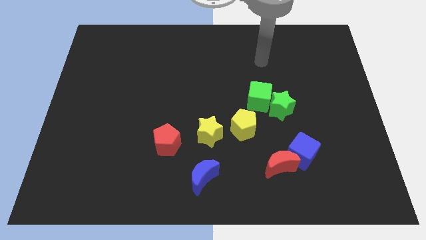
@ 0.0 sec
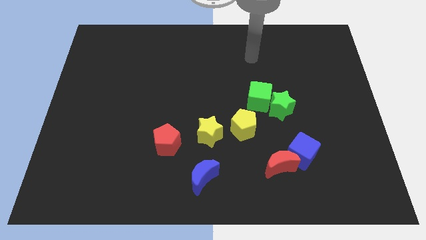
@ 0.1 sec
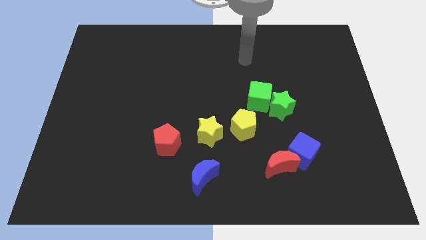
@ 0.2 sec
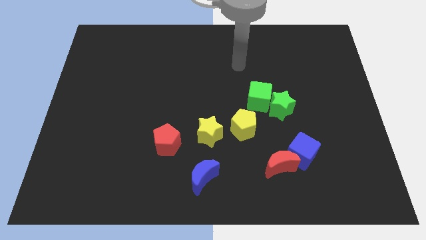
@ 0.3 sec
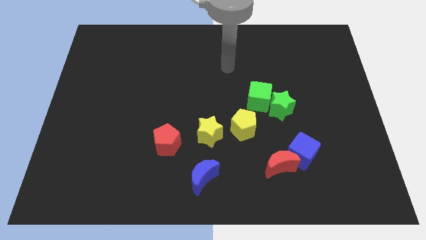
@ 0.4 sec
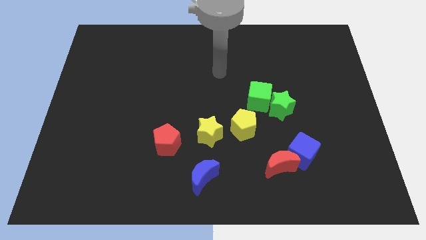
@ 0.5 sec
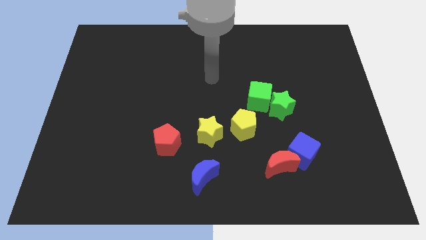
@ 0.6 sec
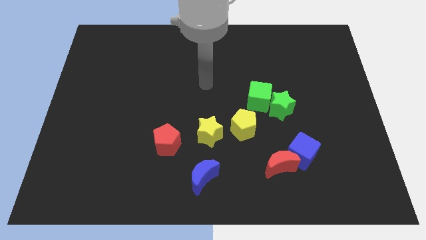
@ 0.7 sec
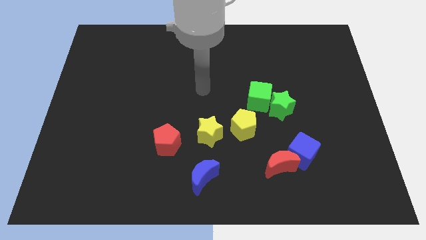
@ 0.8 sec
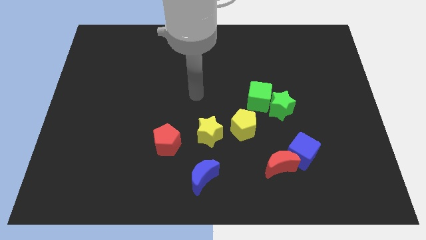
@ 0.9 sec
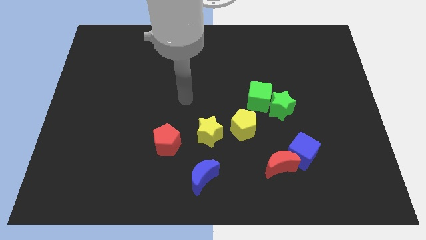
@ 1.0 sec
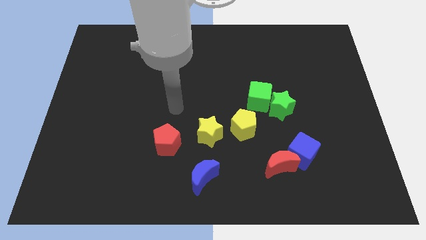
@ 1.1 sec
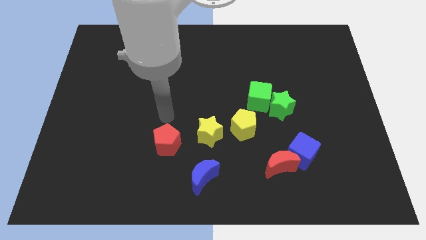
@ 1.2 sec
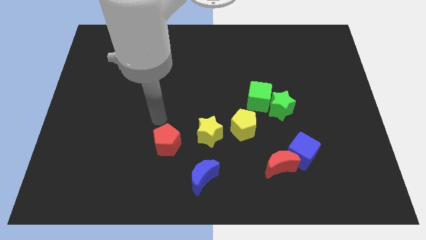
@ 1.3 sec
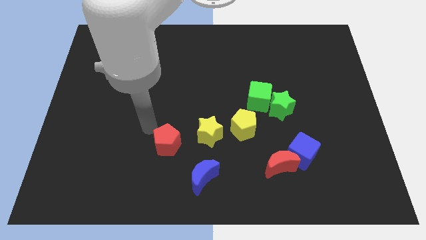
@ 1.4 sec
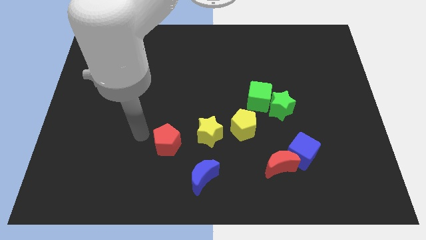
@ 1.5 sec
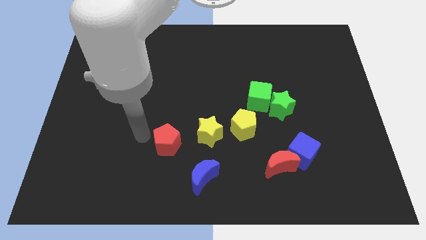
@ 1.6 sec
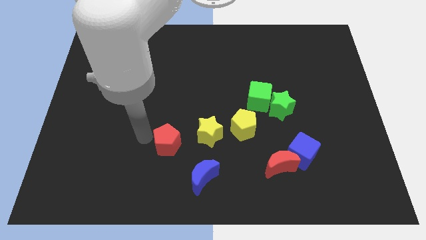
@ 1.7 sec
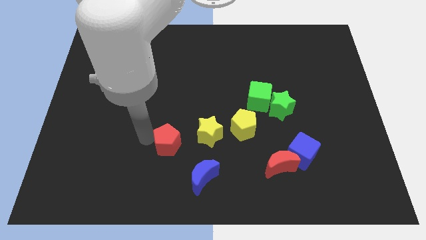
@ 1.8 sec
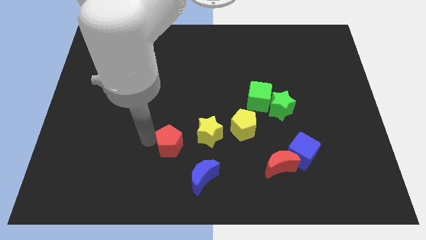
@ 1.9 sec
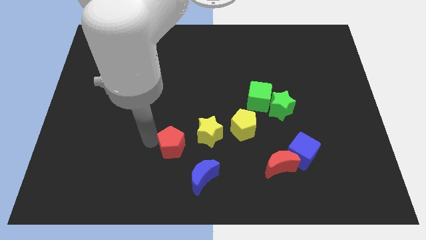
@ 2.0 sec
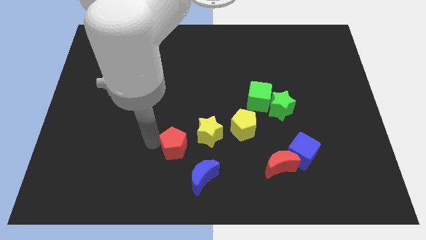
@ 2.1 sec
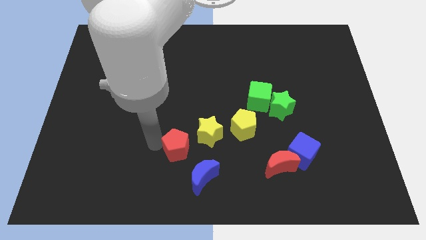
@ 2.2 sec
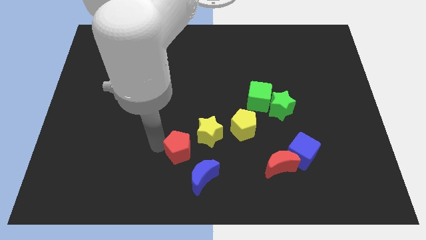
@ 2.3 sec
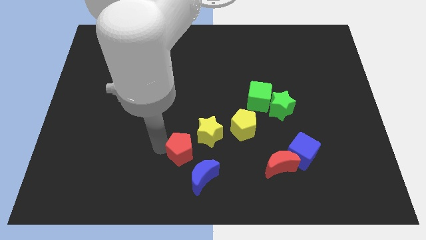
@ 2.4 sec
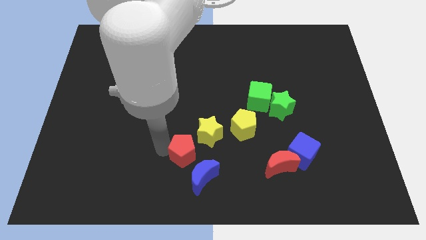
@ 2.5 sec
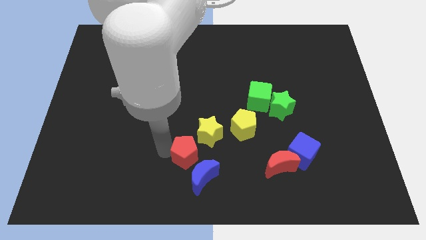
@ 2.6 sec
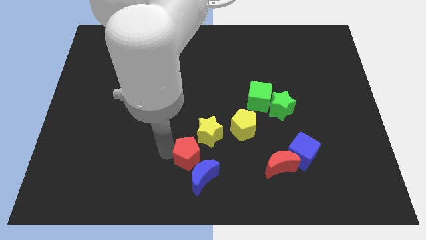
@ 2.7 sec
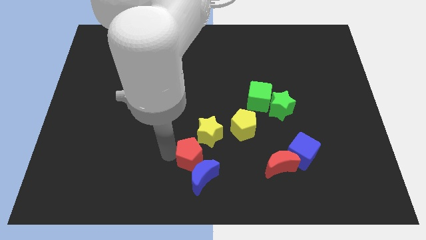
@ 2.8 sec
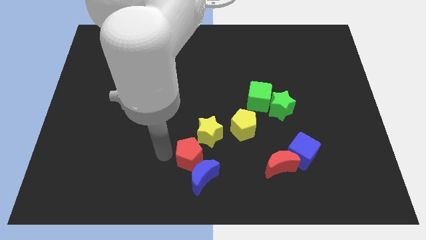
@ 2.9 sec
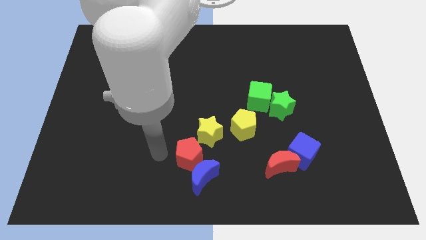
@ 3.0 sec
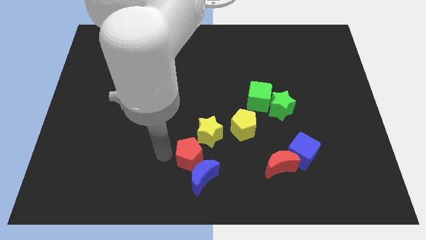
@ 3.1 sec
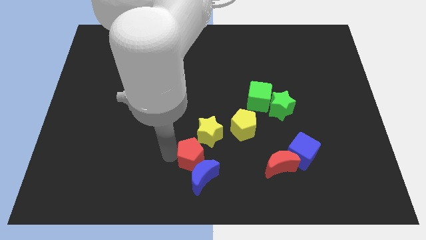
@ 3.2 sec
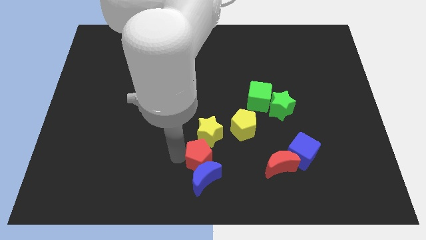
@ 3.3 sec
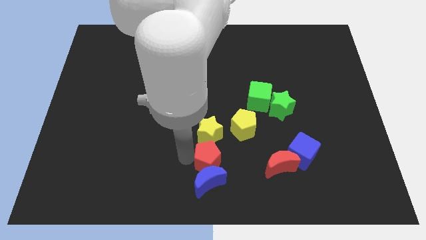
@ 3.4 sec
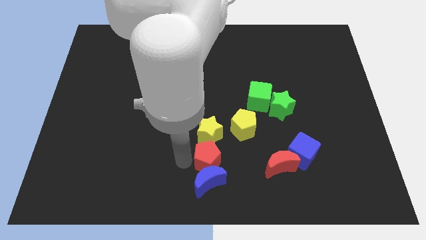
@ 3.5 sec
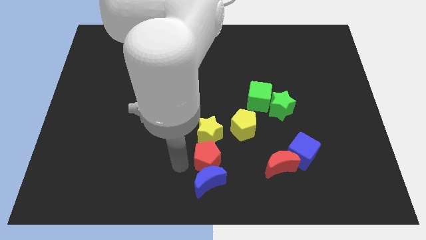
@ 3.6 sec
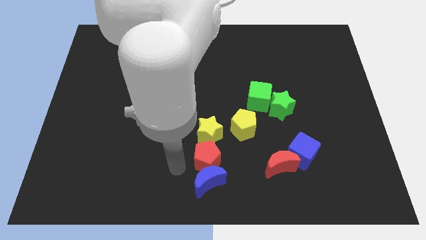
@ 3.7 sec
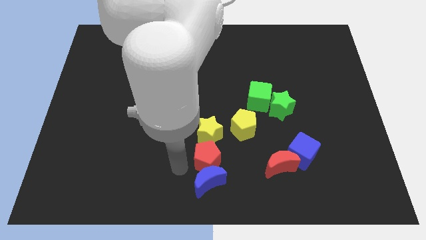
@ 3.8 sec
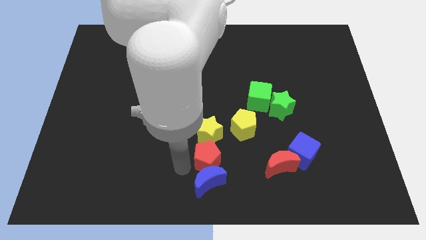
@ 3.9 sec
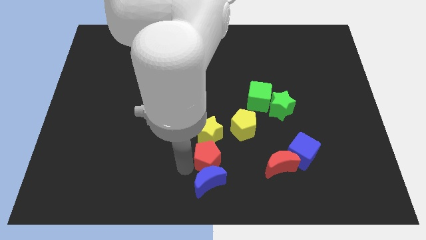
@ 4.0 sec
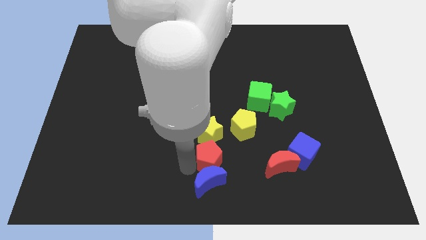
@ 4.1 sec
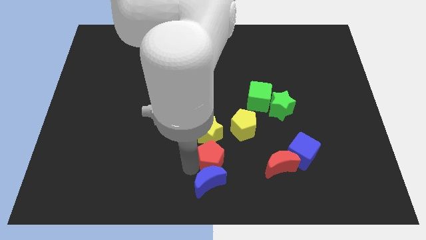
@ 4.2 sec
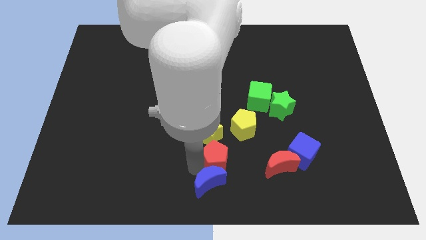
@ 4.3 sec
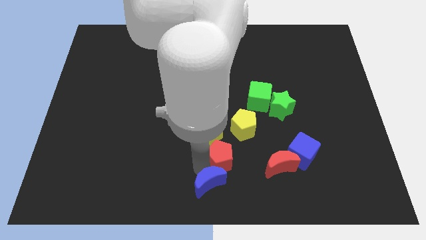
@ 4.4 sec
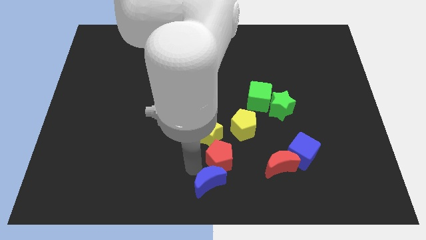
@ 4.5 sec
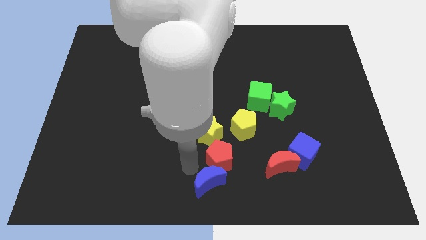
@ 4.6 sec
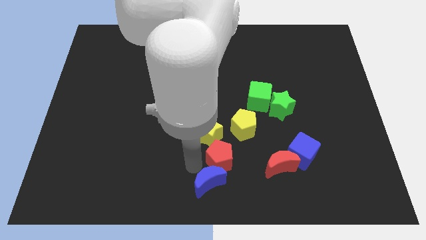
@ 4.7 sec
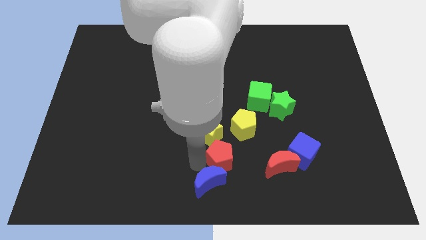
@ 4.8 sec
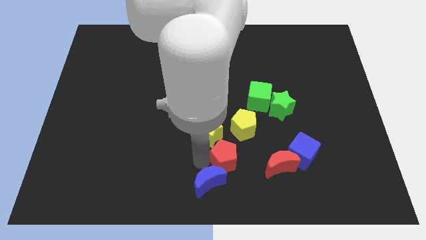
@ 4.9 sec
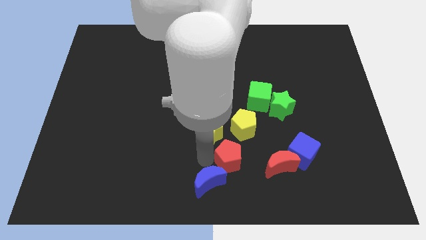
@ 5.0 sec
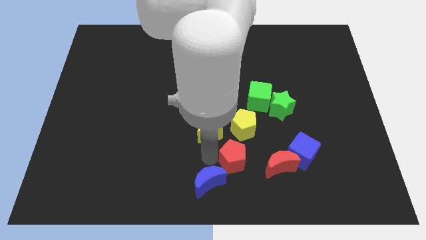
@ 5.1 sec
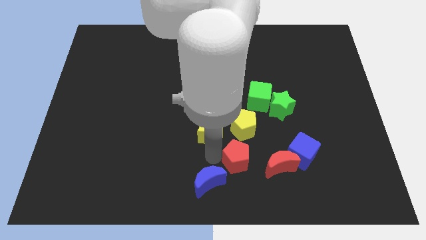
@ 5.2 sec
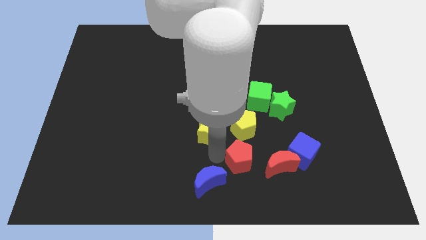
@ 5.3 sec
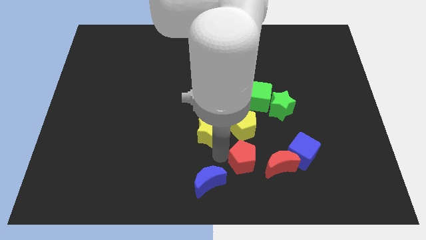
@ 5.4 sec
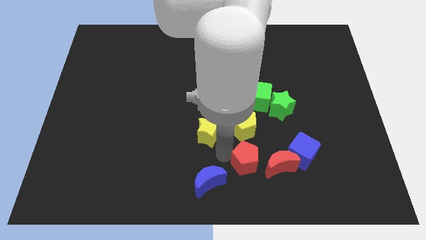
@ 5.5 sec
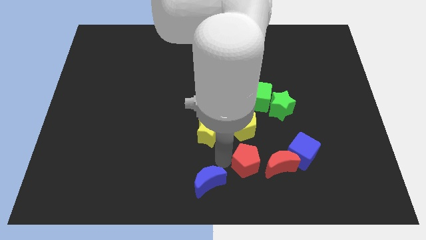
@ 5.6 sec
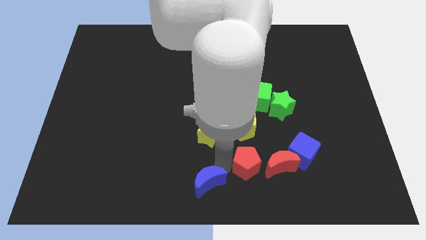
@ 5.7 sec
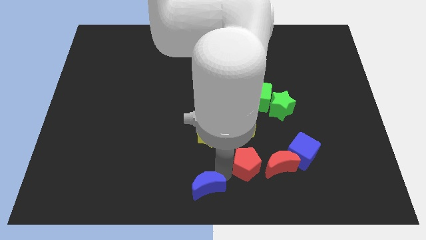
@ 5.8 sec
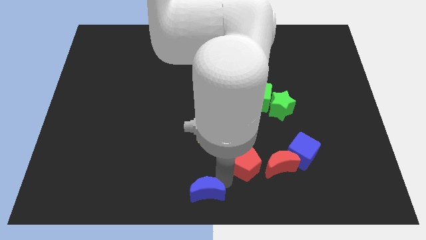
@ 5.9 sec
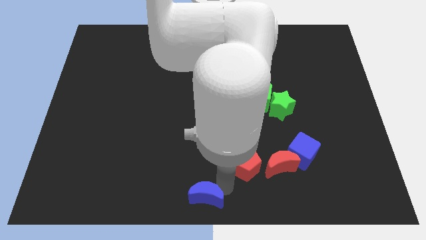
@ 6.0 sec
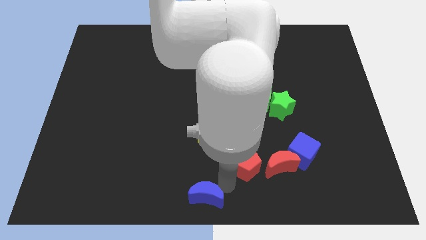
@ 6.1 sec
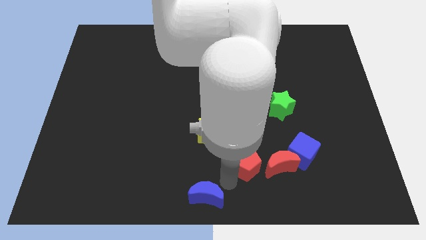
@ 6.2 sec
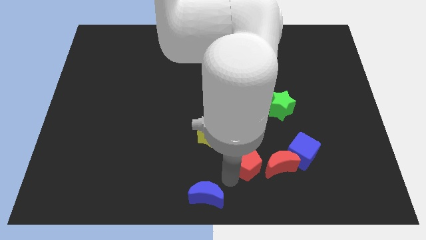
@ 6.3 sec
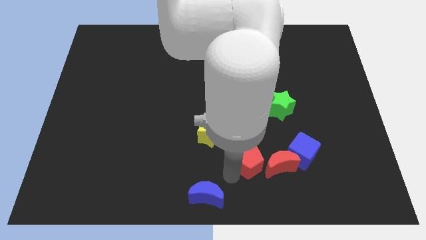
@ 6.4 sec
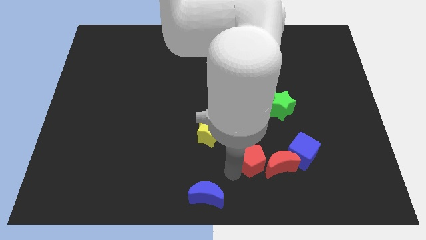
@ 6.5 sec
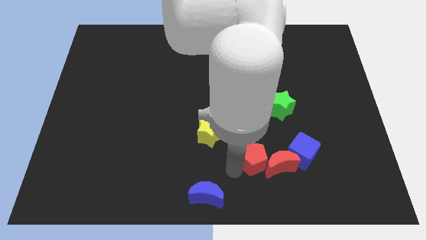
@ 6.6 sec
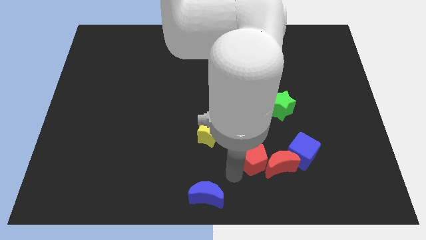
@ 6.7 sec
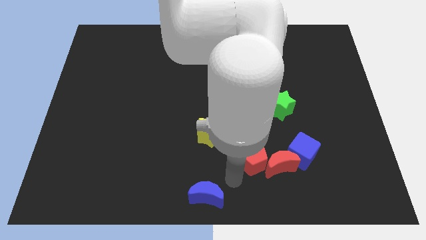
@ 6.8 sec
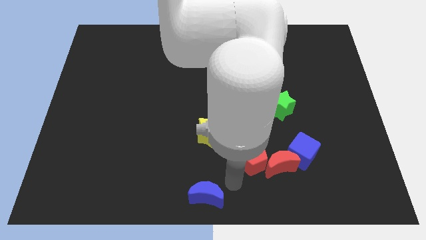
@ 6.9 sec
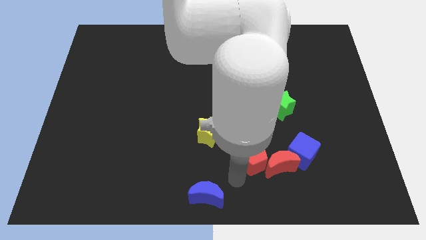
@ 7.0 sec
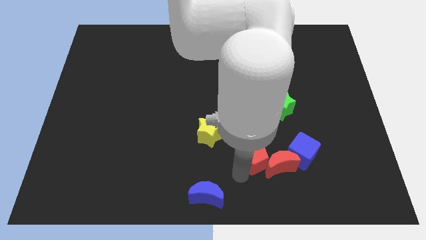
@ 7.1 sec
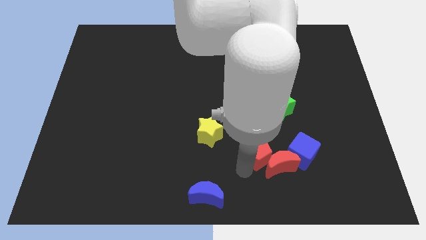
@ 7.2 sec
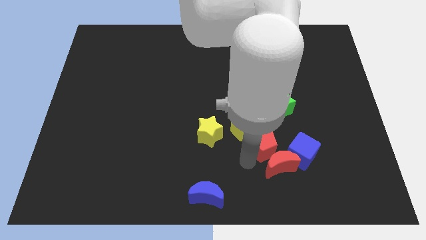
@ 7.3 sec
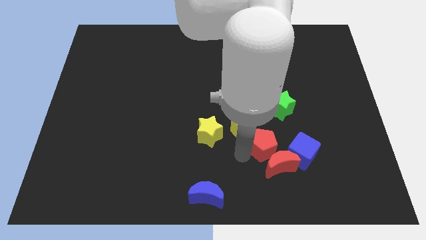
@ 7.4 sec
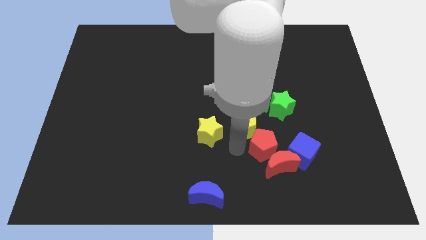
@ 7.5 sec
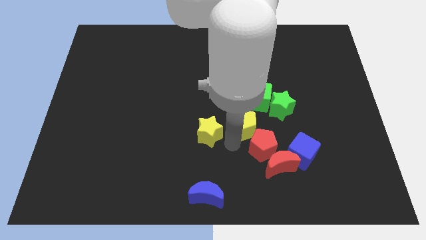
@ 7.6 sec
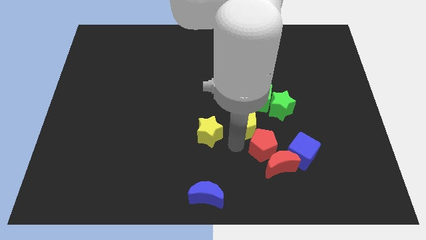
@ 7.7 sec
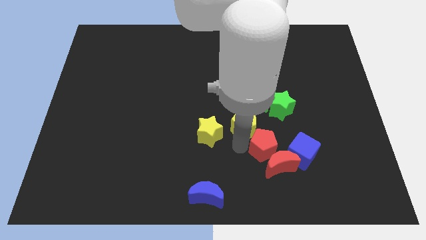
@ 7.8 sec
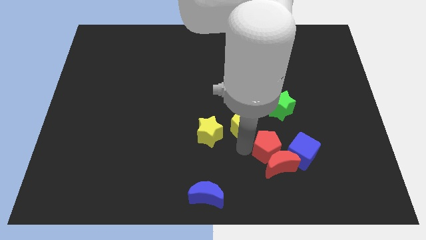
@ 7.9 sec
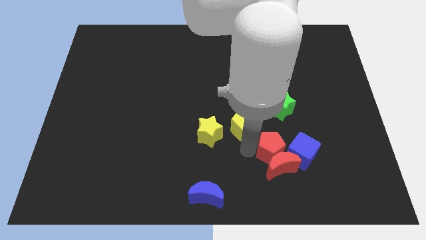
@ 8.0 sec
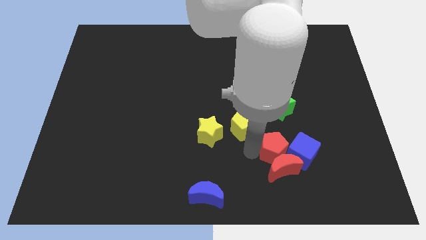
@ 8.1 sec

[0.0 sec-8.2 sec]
slide the red pentagon next to the blue cube
